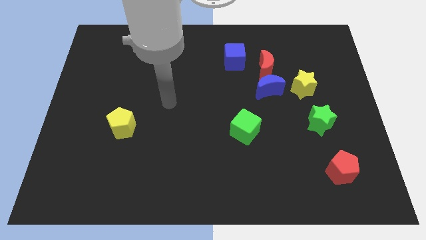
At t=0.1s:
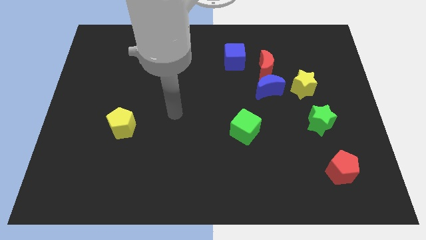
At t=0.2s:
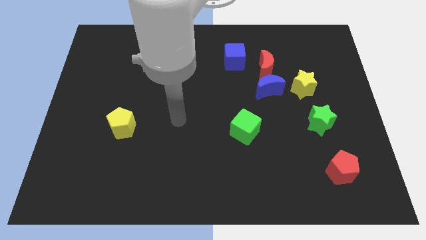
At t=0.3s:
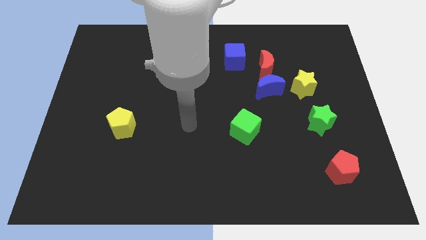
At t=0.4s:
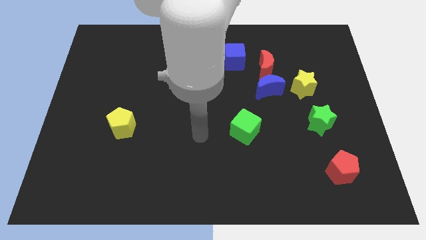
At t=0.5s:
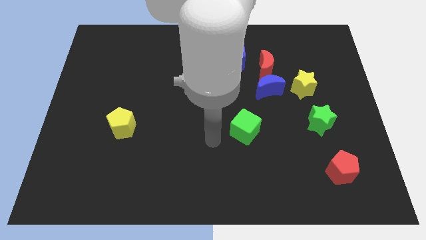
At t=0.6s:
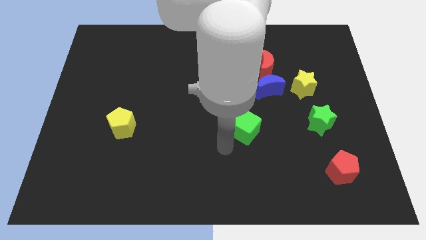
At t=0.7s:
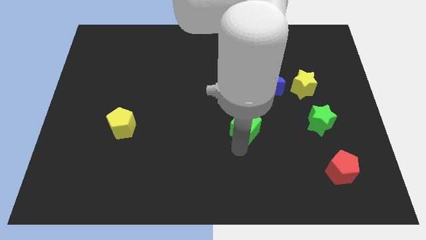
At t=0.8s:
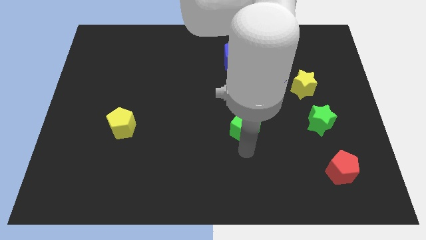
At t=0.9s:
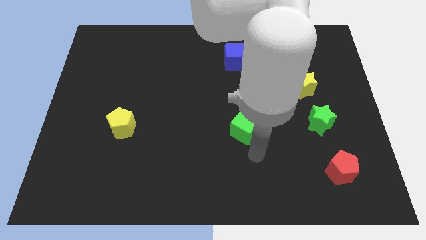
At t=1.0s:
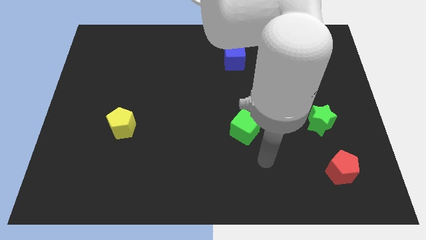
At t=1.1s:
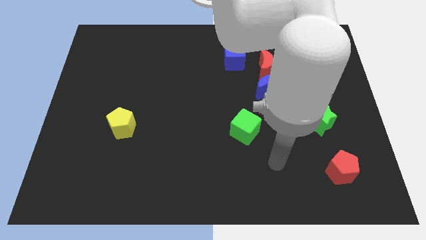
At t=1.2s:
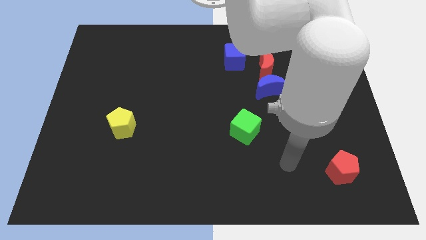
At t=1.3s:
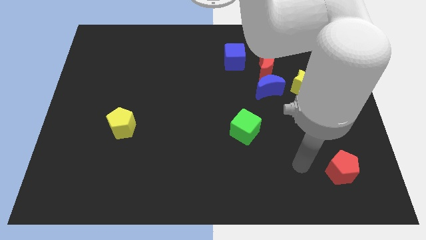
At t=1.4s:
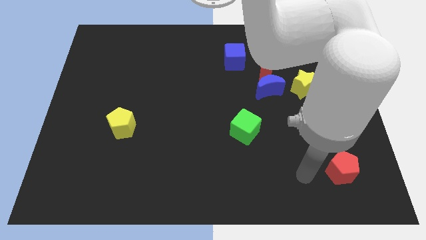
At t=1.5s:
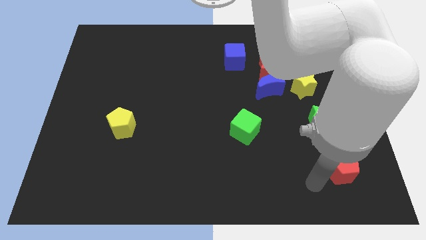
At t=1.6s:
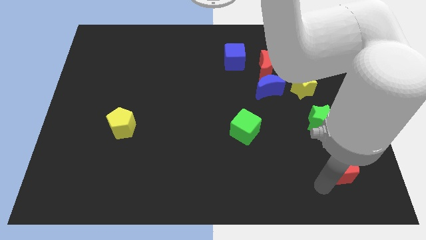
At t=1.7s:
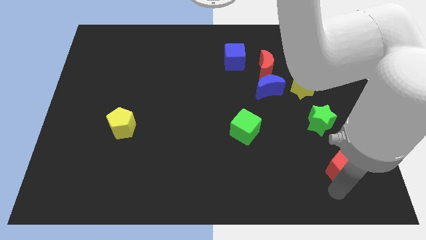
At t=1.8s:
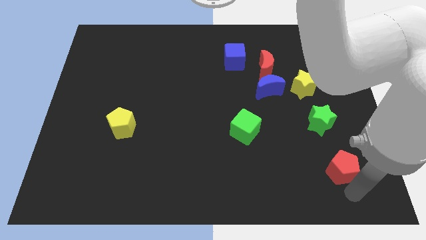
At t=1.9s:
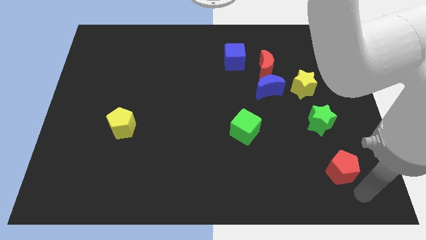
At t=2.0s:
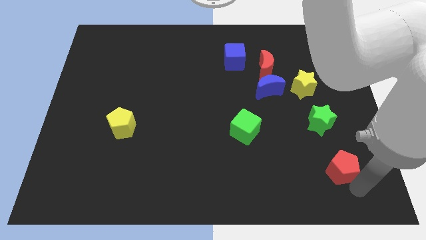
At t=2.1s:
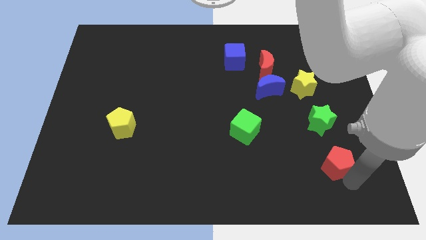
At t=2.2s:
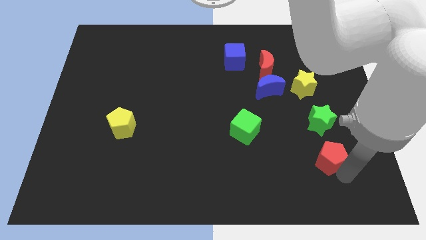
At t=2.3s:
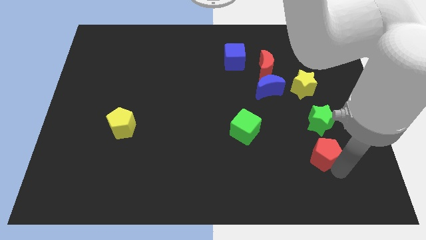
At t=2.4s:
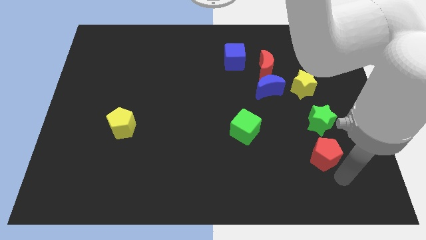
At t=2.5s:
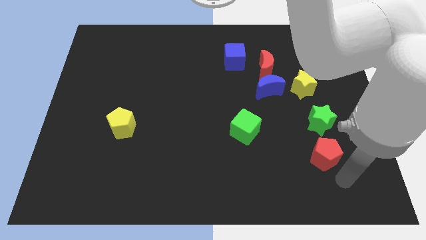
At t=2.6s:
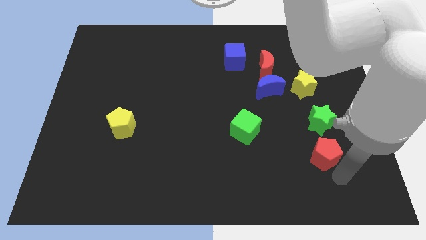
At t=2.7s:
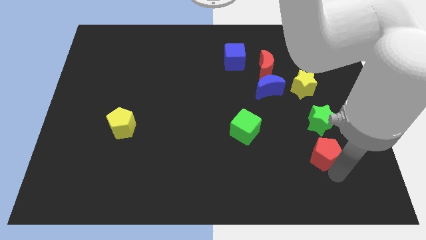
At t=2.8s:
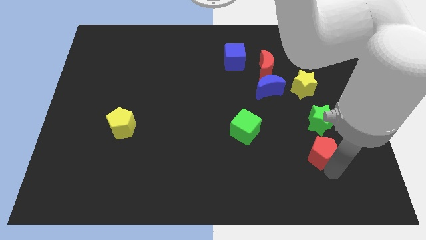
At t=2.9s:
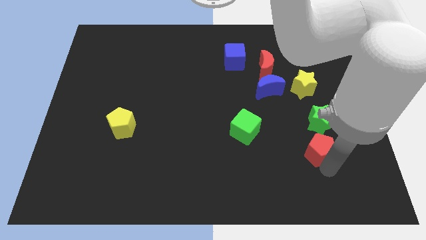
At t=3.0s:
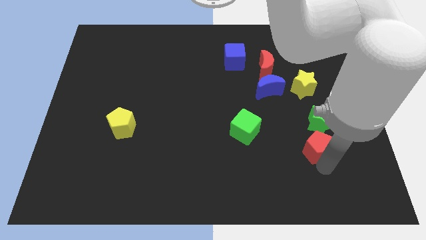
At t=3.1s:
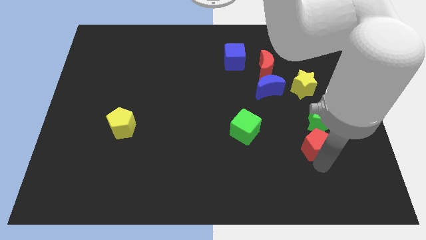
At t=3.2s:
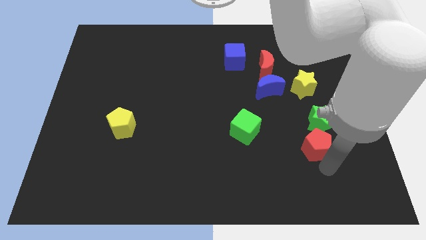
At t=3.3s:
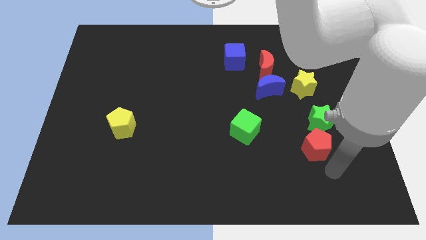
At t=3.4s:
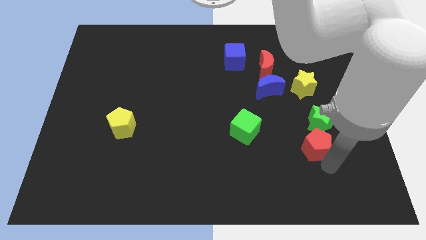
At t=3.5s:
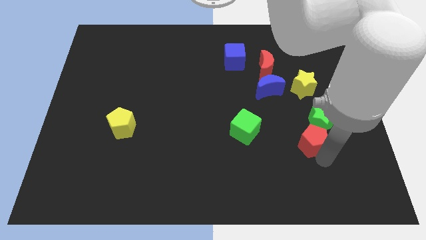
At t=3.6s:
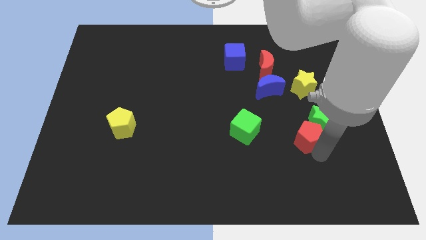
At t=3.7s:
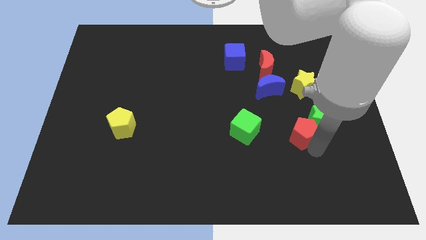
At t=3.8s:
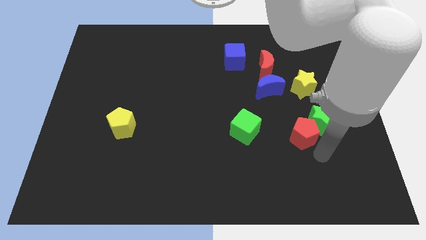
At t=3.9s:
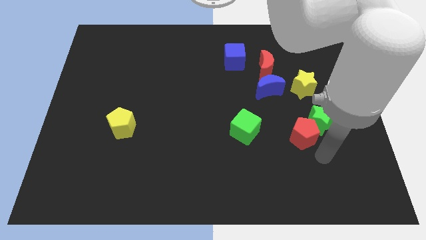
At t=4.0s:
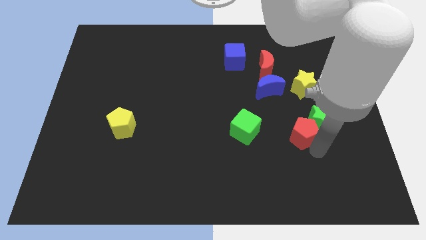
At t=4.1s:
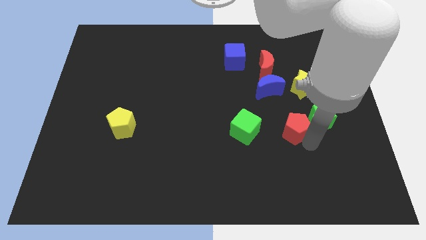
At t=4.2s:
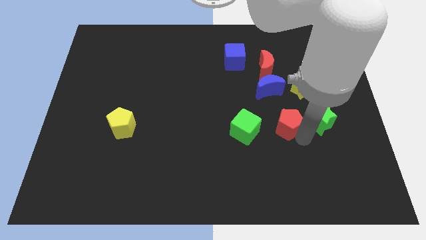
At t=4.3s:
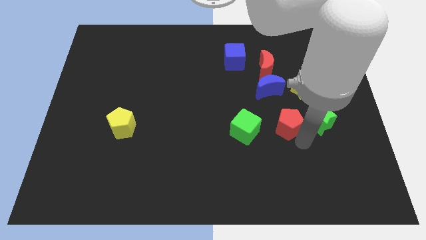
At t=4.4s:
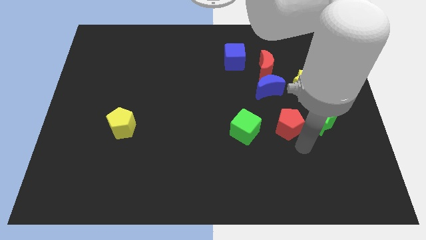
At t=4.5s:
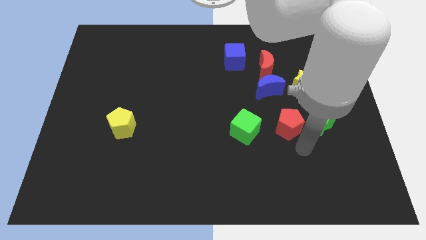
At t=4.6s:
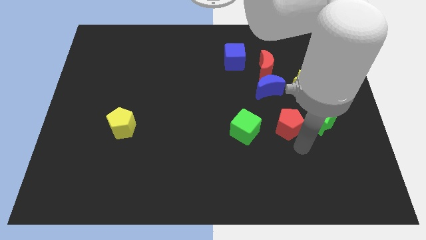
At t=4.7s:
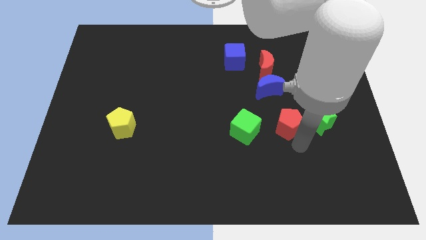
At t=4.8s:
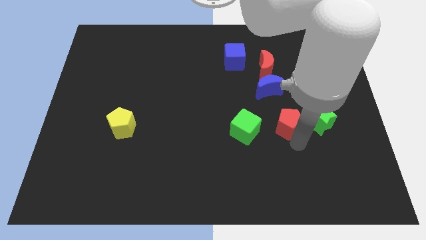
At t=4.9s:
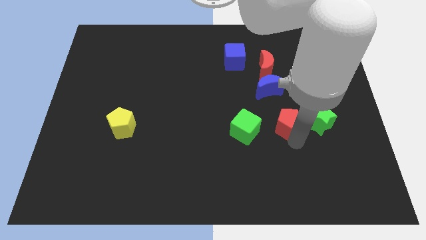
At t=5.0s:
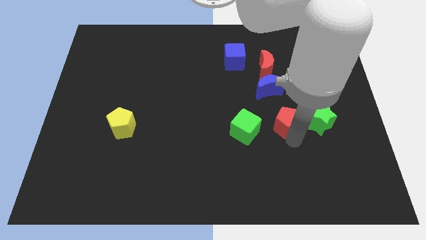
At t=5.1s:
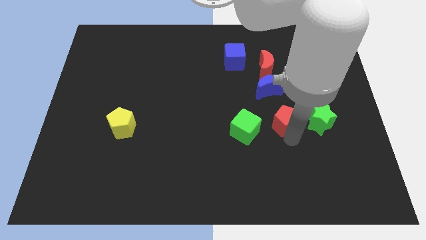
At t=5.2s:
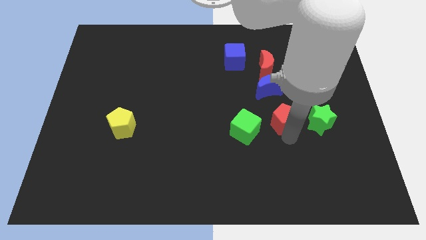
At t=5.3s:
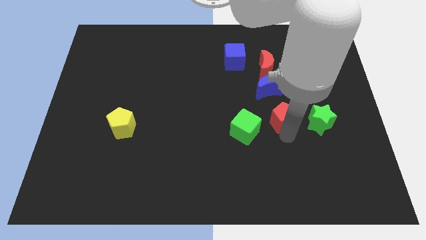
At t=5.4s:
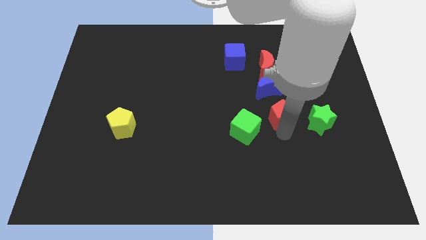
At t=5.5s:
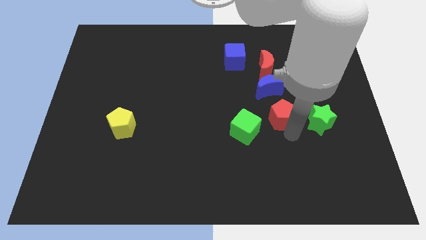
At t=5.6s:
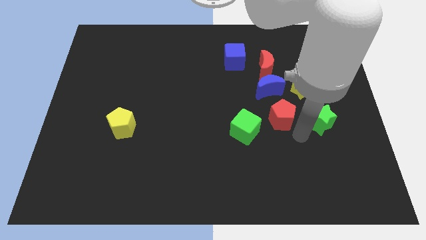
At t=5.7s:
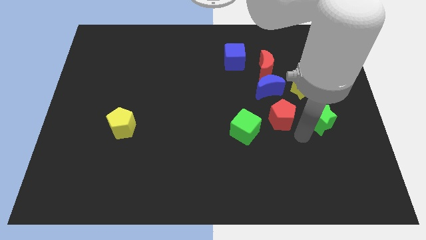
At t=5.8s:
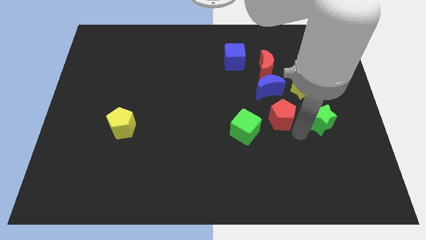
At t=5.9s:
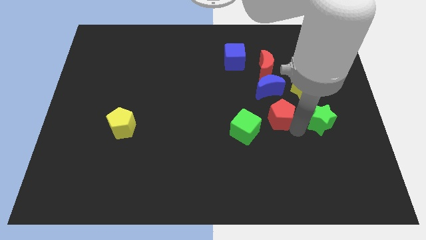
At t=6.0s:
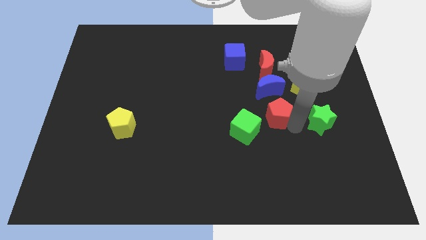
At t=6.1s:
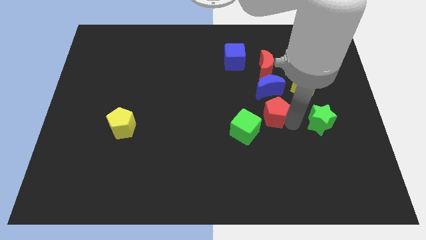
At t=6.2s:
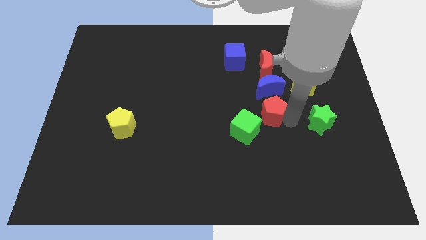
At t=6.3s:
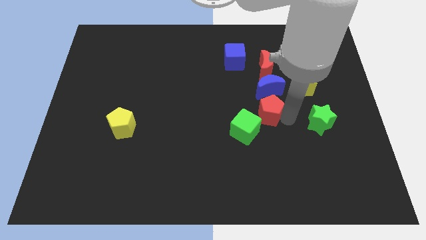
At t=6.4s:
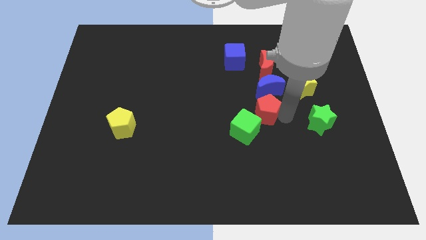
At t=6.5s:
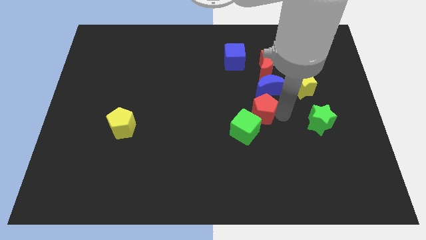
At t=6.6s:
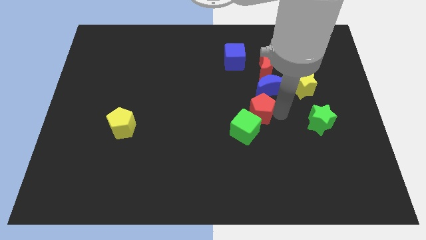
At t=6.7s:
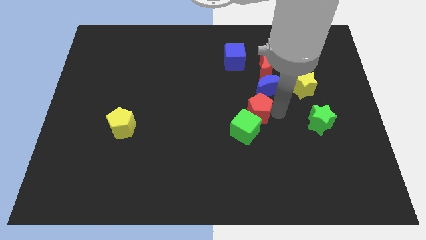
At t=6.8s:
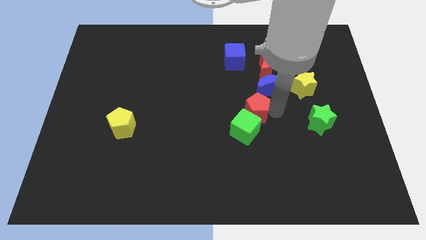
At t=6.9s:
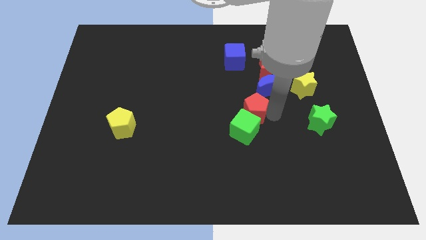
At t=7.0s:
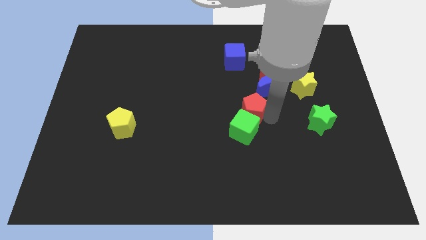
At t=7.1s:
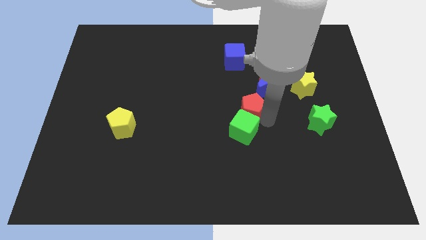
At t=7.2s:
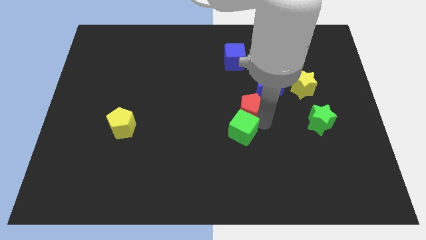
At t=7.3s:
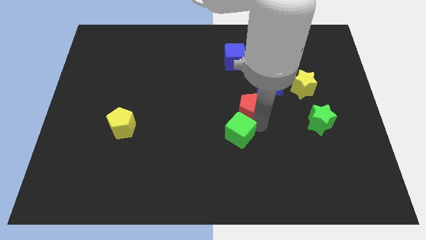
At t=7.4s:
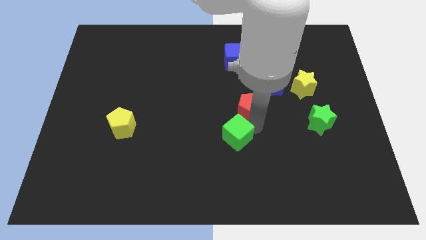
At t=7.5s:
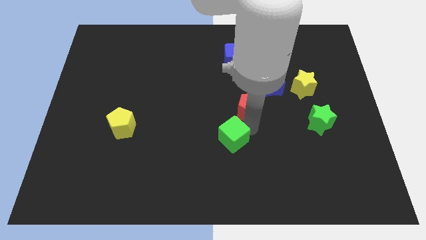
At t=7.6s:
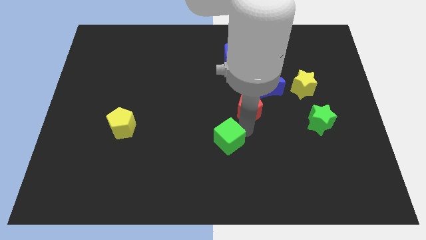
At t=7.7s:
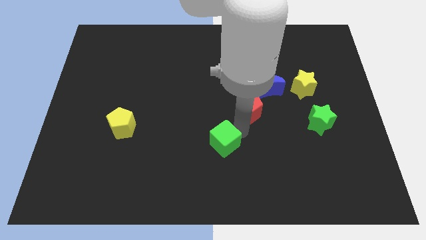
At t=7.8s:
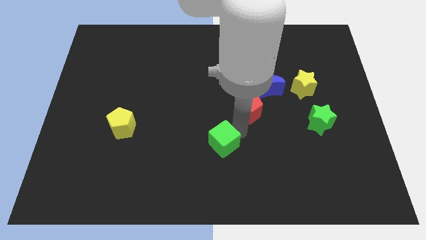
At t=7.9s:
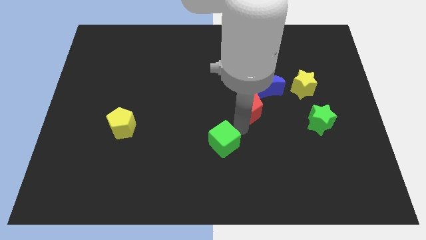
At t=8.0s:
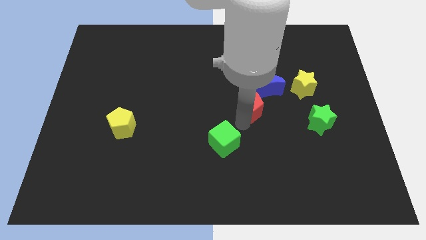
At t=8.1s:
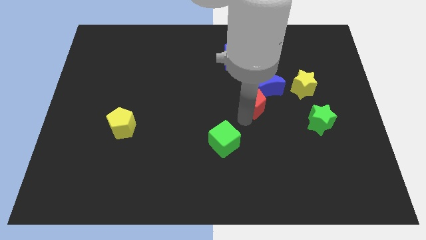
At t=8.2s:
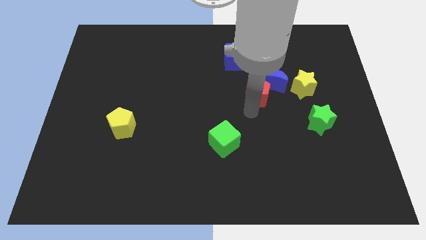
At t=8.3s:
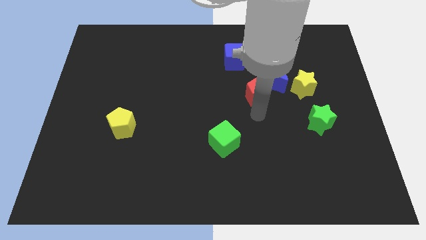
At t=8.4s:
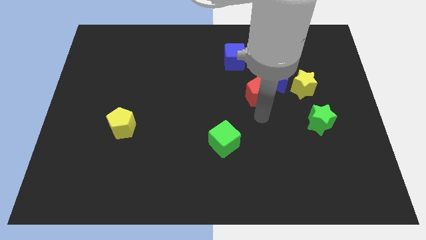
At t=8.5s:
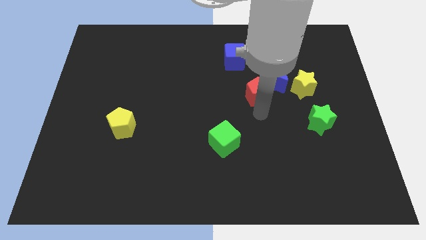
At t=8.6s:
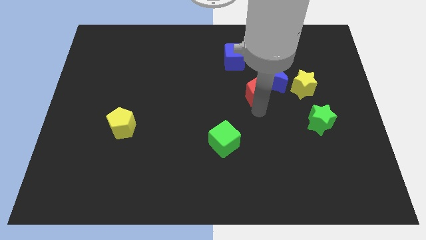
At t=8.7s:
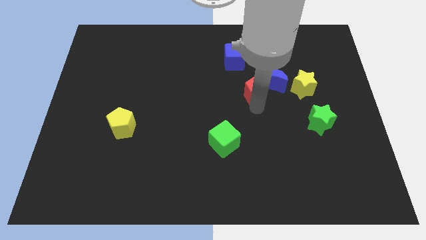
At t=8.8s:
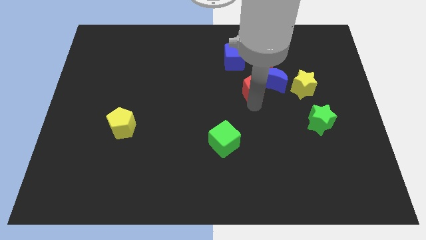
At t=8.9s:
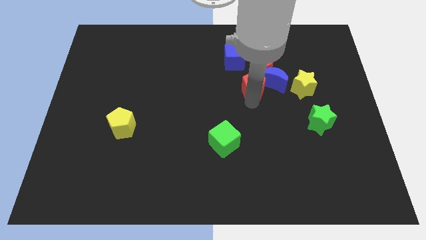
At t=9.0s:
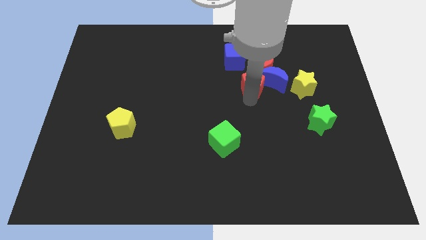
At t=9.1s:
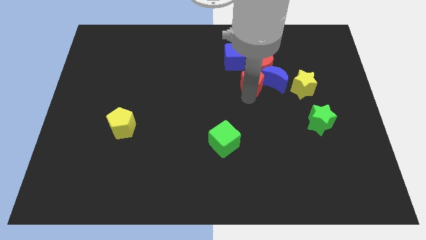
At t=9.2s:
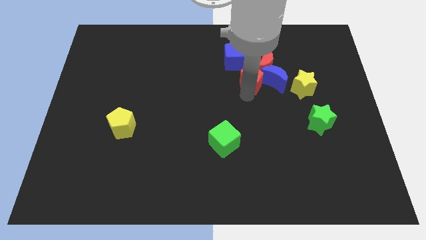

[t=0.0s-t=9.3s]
push the red pentagon to the top left side of the blue moon
